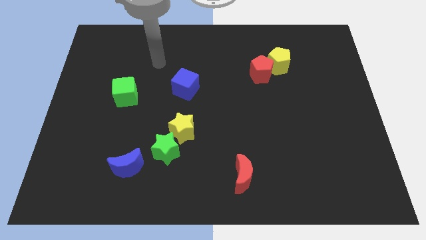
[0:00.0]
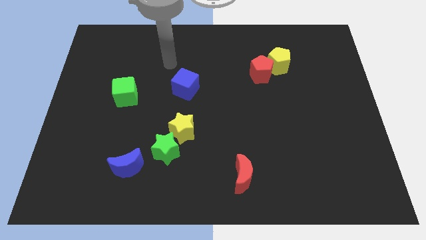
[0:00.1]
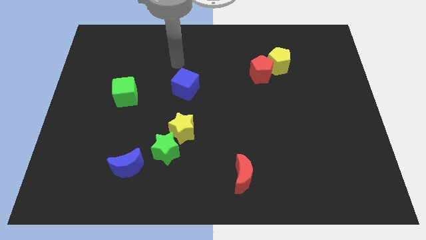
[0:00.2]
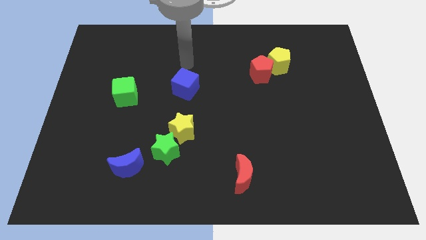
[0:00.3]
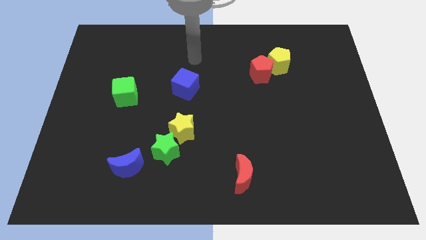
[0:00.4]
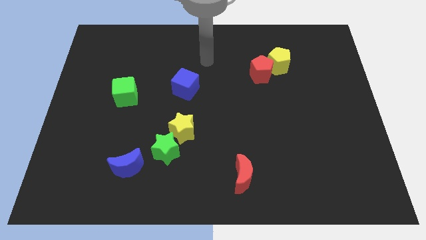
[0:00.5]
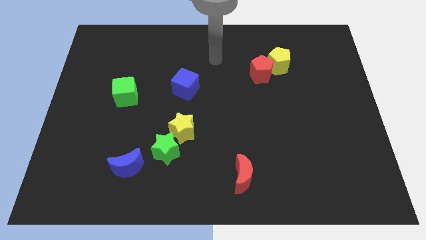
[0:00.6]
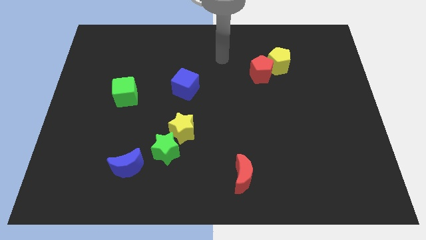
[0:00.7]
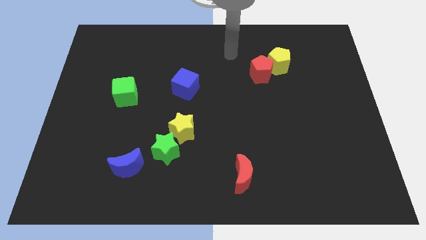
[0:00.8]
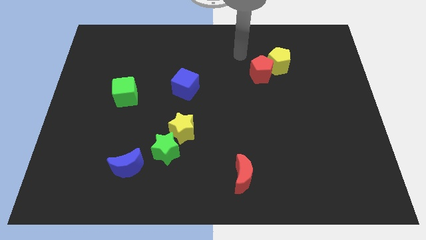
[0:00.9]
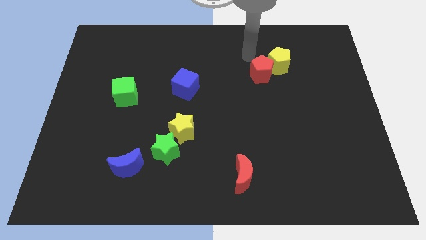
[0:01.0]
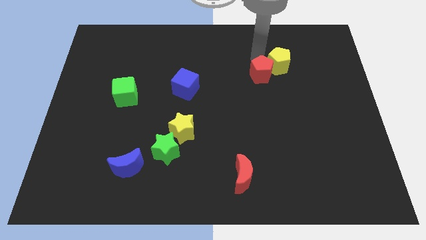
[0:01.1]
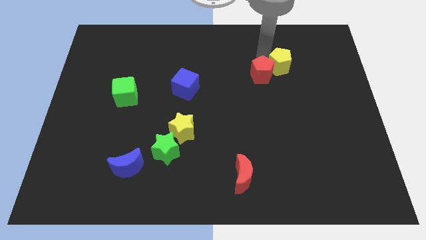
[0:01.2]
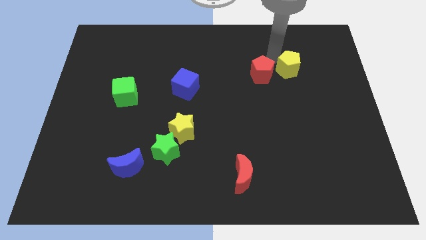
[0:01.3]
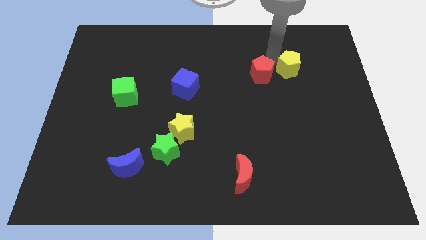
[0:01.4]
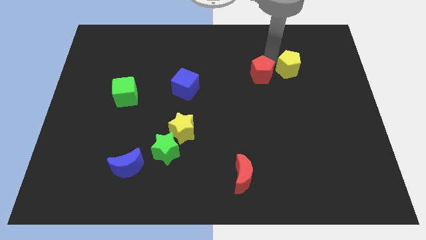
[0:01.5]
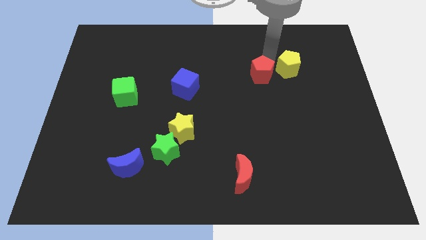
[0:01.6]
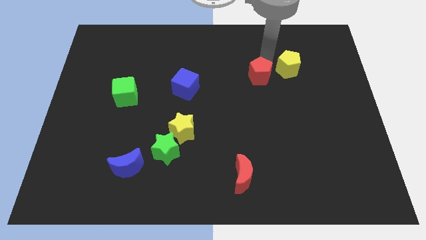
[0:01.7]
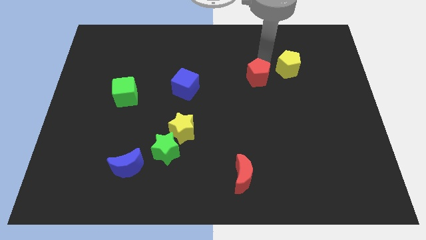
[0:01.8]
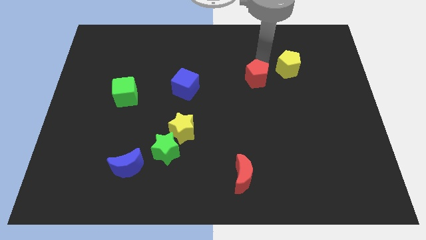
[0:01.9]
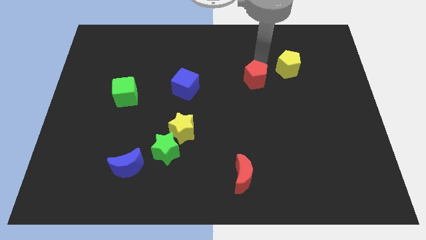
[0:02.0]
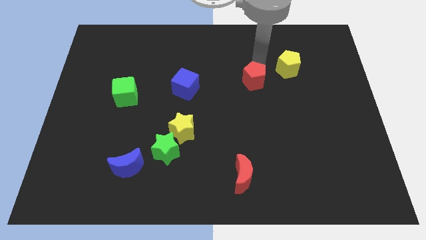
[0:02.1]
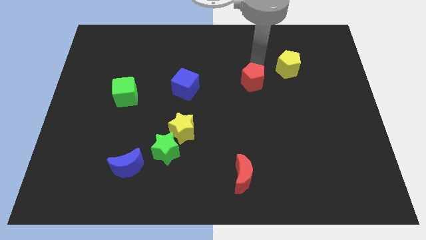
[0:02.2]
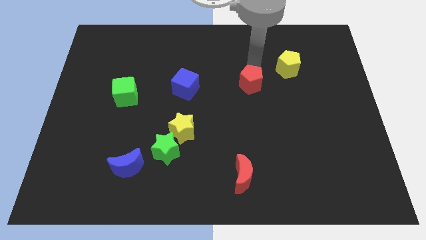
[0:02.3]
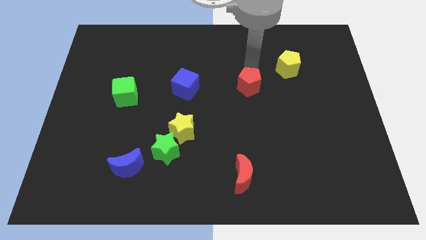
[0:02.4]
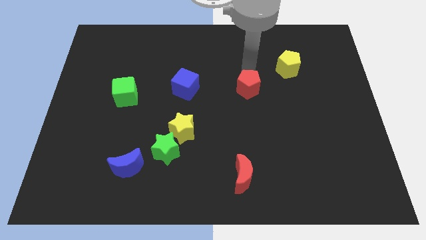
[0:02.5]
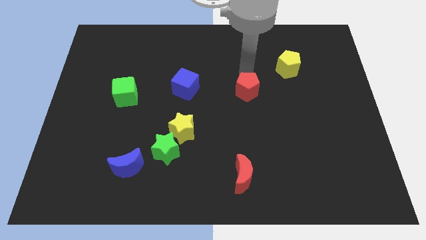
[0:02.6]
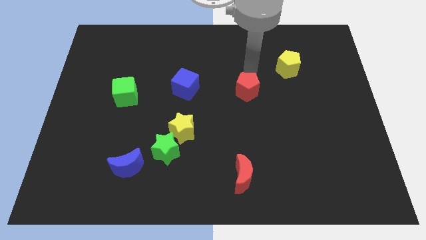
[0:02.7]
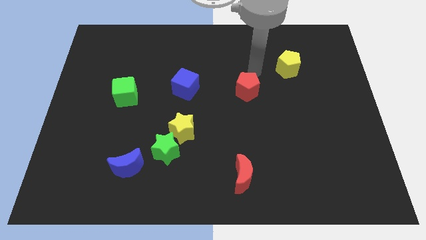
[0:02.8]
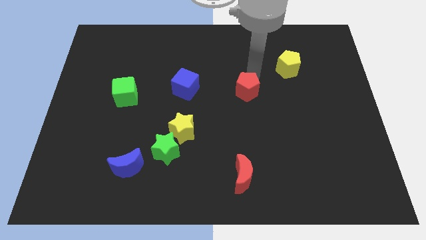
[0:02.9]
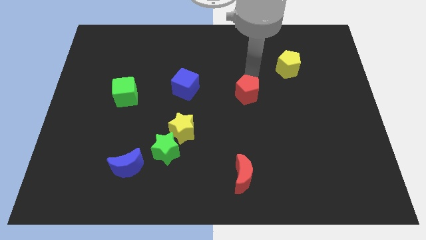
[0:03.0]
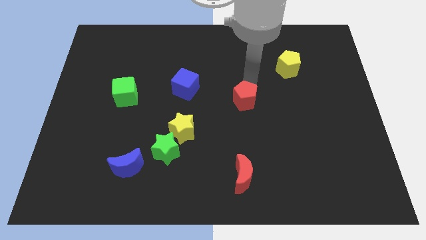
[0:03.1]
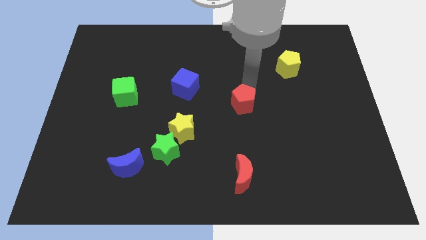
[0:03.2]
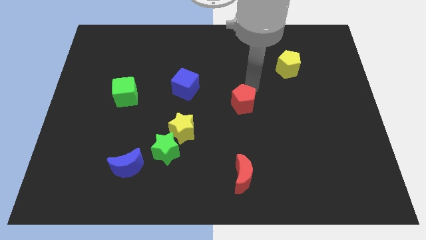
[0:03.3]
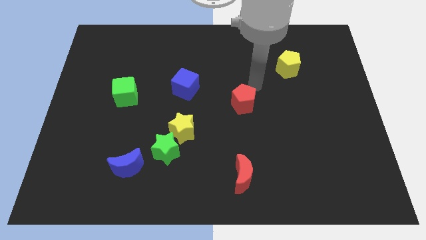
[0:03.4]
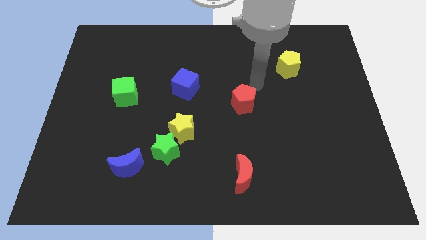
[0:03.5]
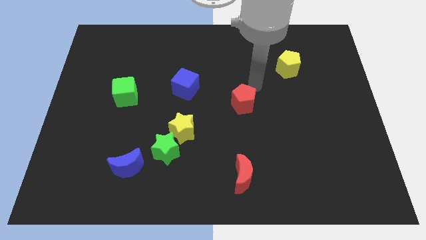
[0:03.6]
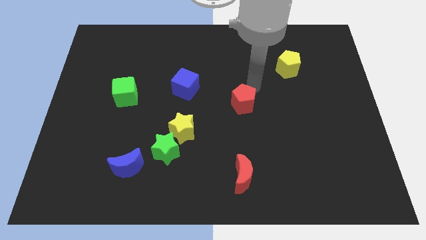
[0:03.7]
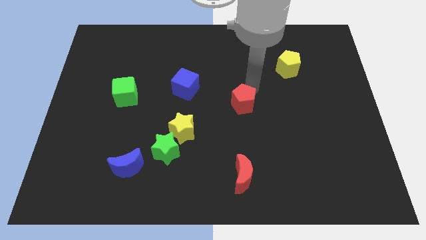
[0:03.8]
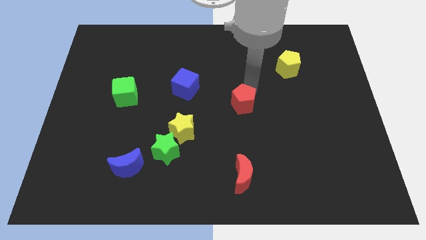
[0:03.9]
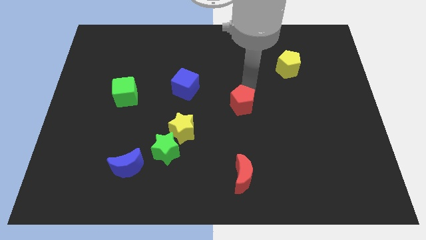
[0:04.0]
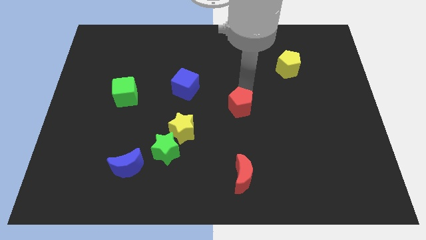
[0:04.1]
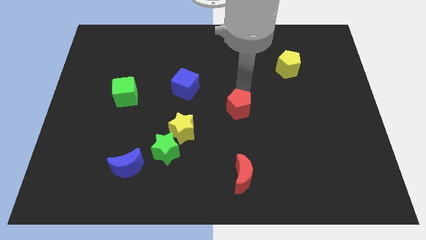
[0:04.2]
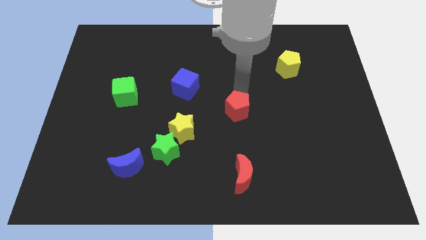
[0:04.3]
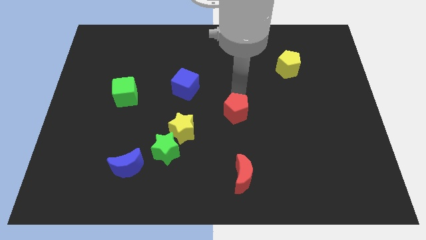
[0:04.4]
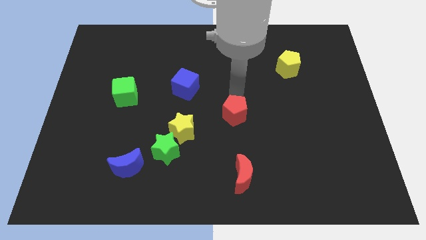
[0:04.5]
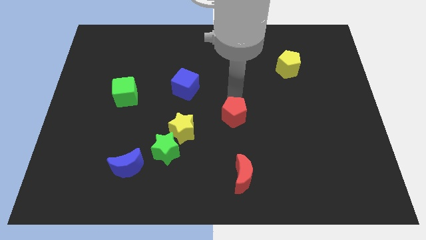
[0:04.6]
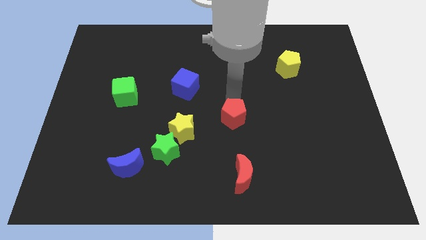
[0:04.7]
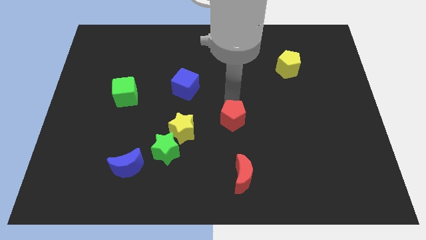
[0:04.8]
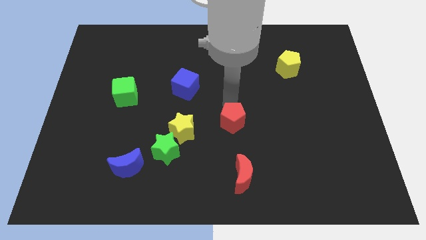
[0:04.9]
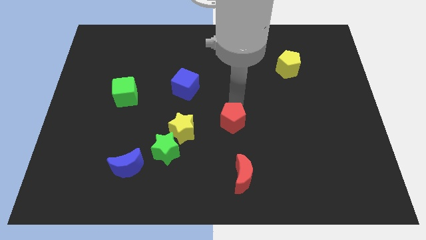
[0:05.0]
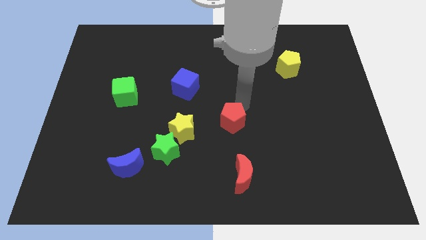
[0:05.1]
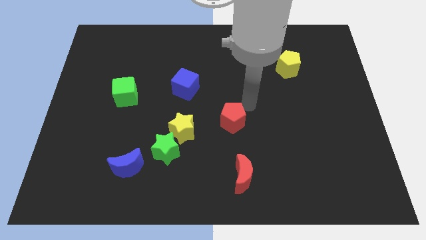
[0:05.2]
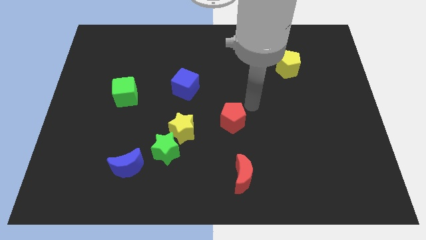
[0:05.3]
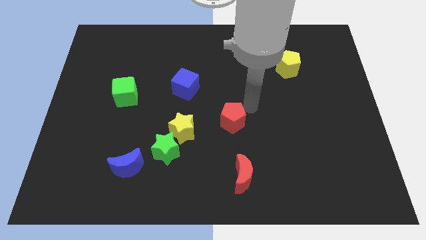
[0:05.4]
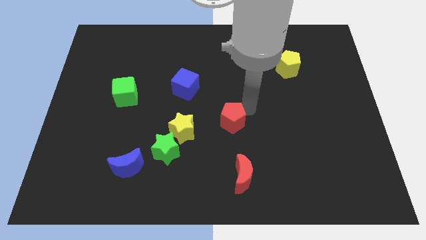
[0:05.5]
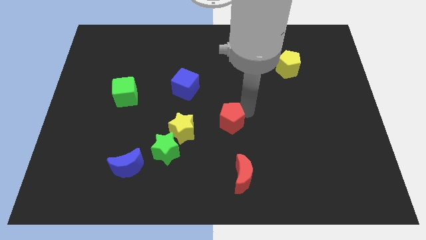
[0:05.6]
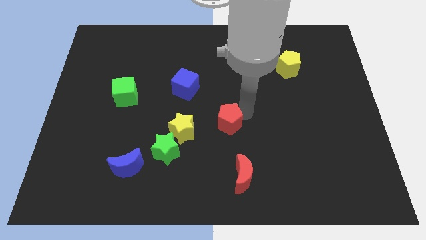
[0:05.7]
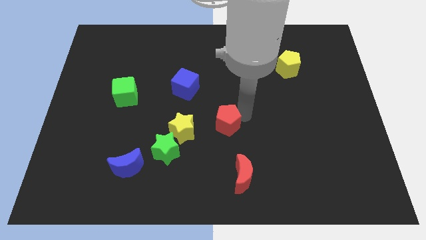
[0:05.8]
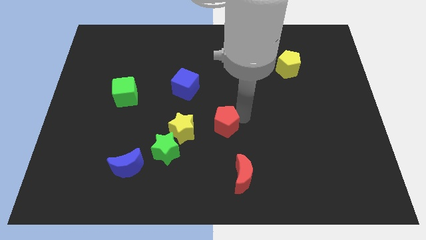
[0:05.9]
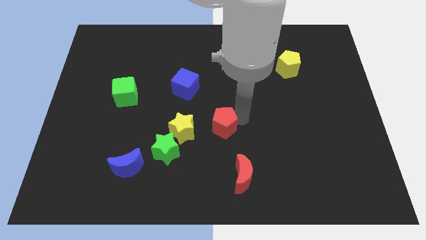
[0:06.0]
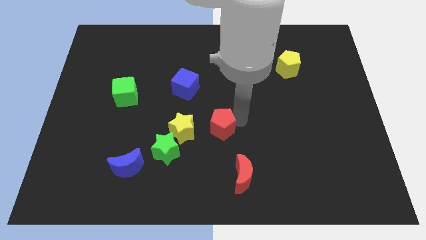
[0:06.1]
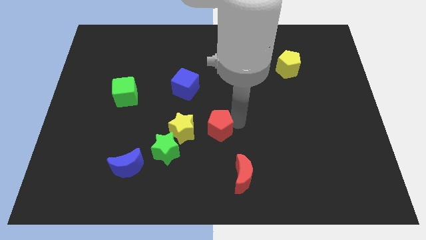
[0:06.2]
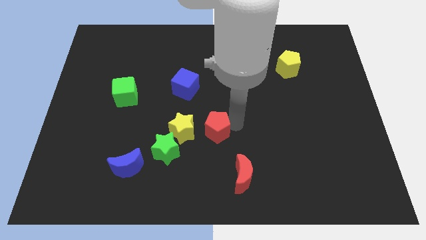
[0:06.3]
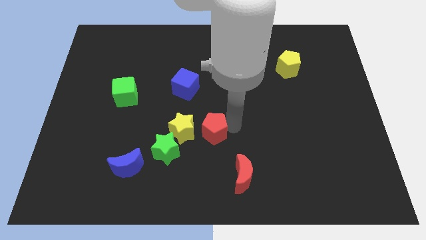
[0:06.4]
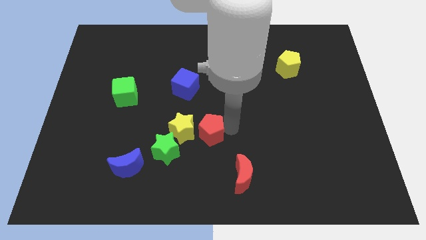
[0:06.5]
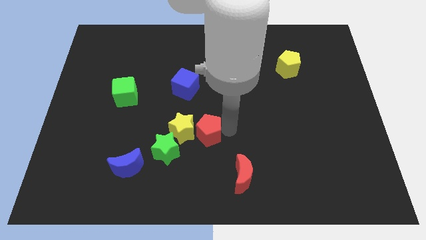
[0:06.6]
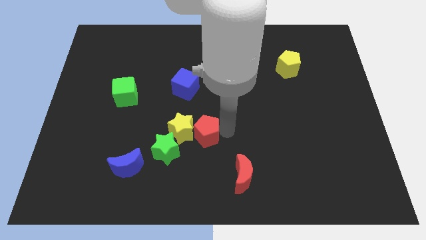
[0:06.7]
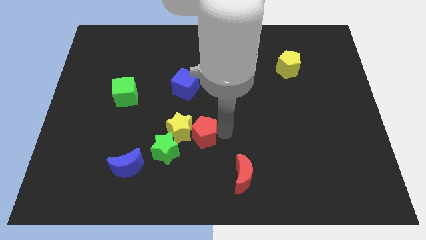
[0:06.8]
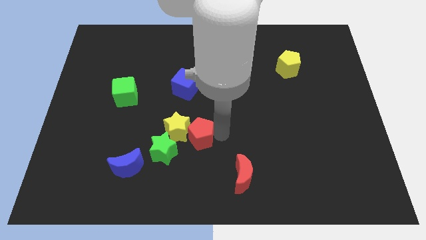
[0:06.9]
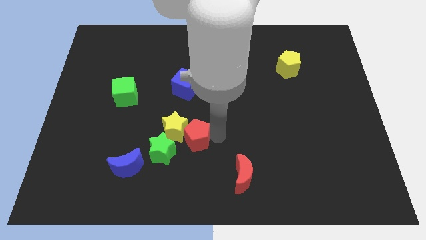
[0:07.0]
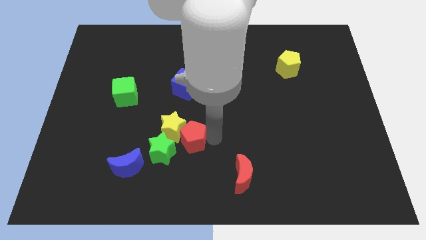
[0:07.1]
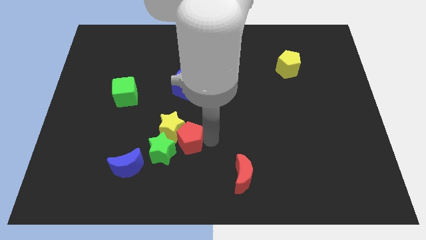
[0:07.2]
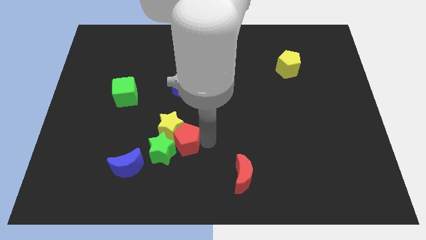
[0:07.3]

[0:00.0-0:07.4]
slide the red pentagon towards the green star
